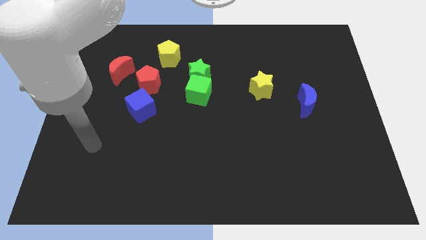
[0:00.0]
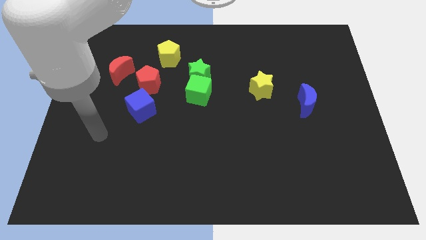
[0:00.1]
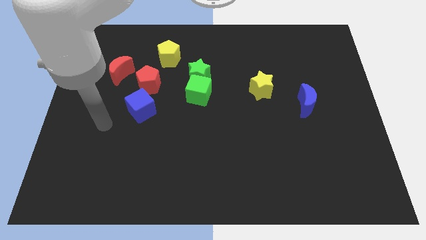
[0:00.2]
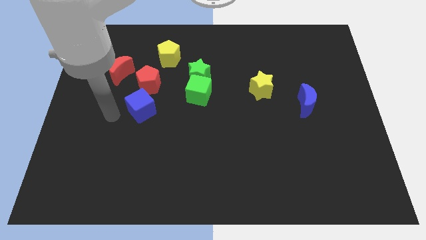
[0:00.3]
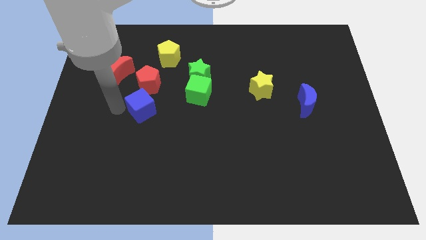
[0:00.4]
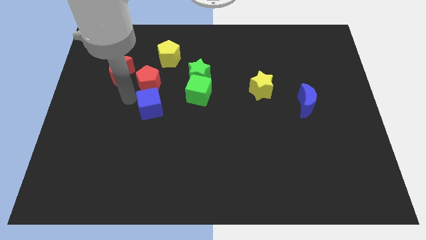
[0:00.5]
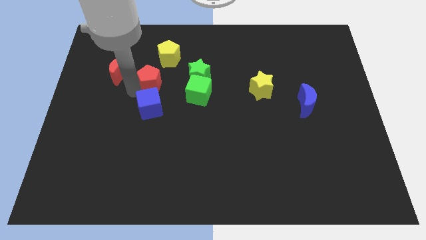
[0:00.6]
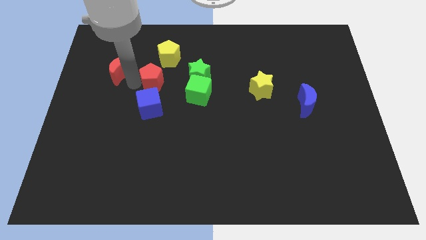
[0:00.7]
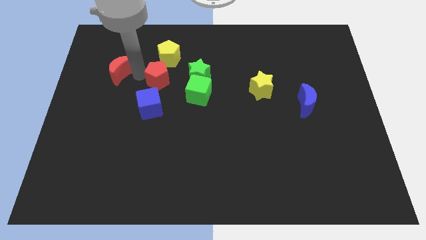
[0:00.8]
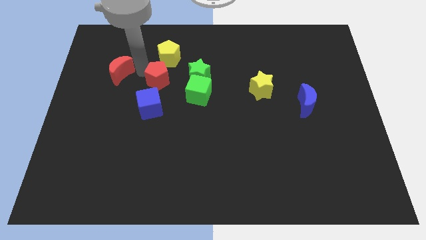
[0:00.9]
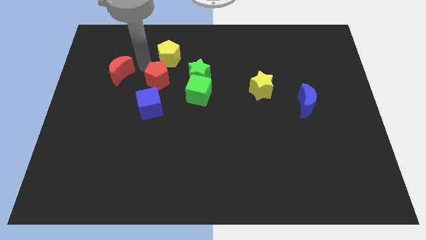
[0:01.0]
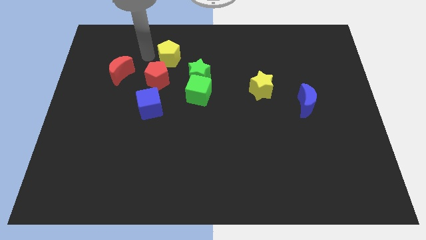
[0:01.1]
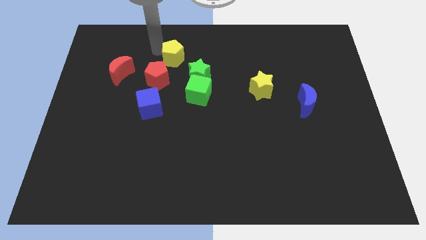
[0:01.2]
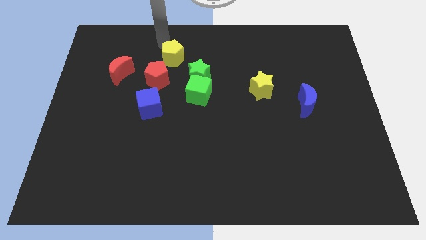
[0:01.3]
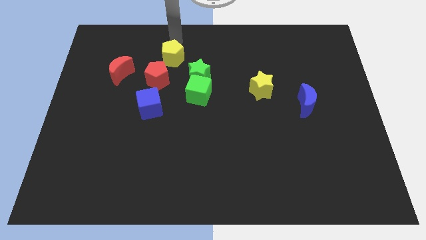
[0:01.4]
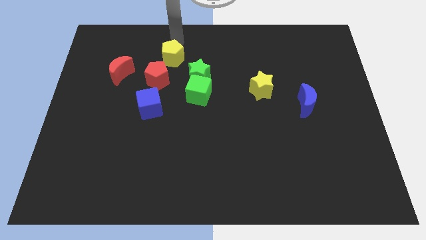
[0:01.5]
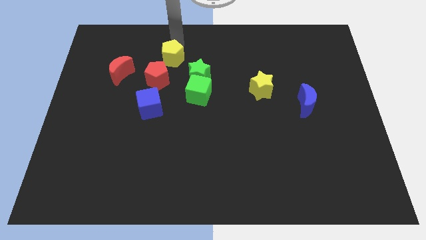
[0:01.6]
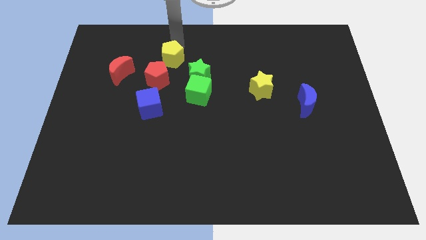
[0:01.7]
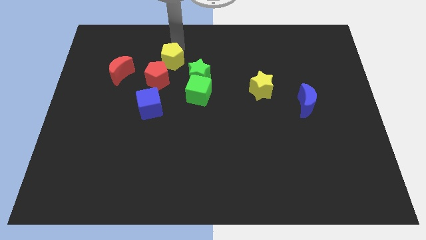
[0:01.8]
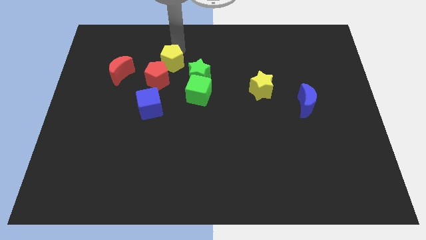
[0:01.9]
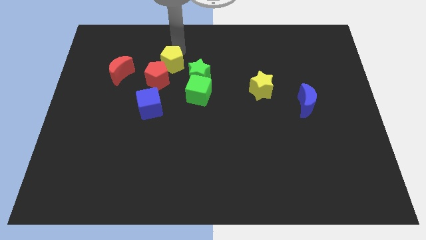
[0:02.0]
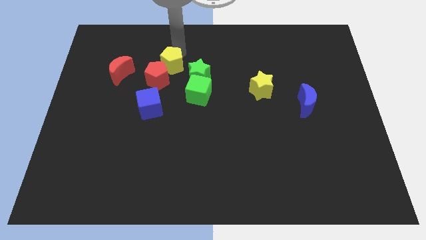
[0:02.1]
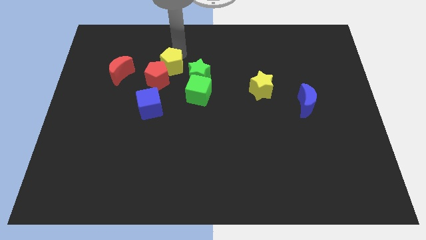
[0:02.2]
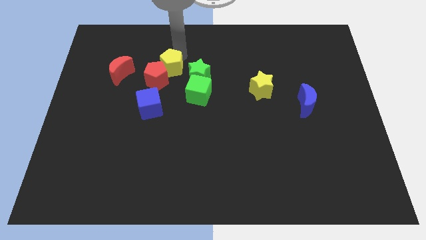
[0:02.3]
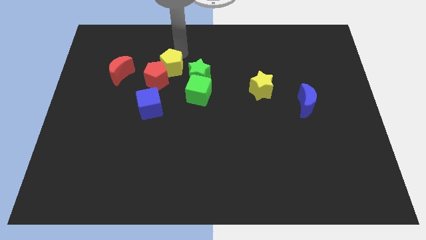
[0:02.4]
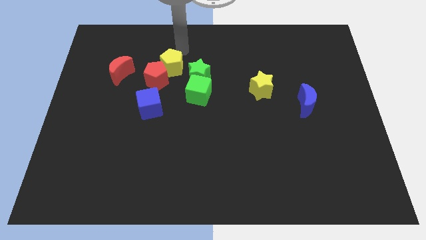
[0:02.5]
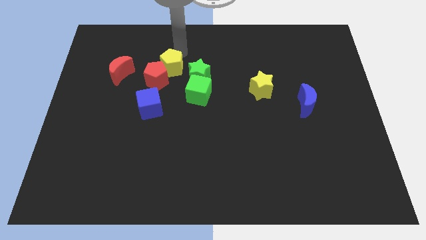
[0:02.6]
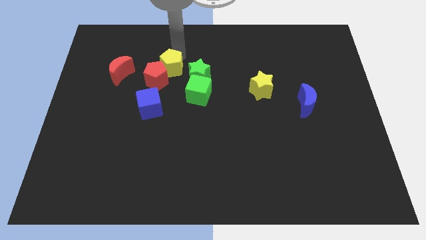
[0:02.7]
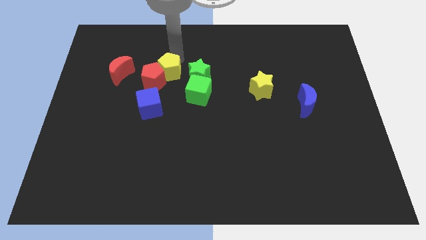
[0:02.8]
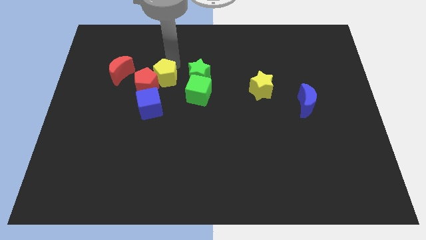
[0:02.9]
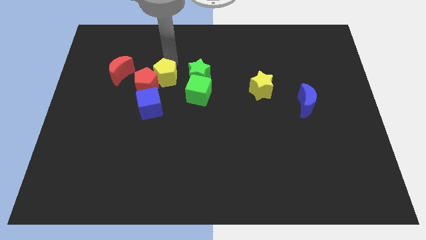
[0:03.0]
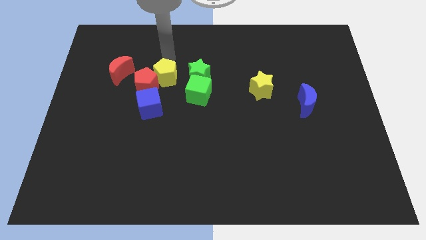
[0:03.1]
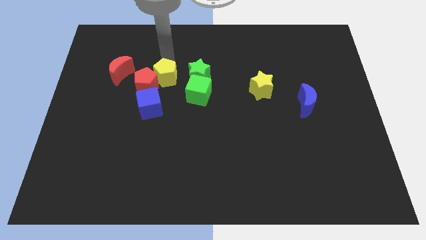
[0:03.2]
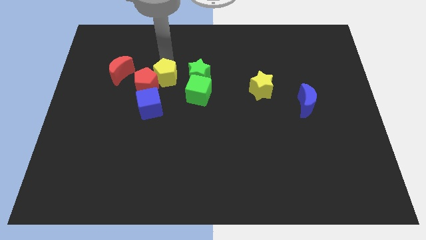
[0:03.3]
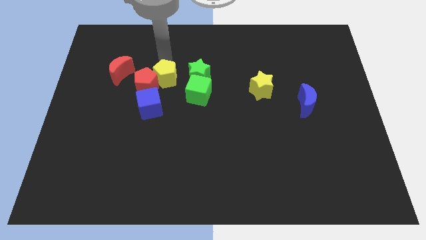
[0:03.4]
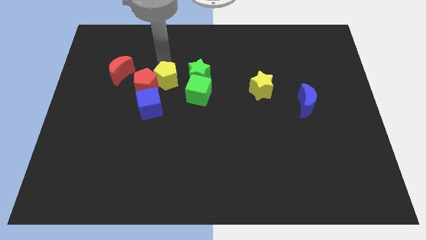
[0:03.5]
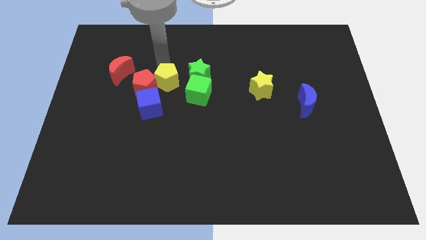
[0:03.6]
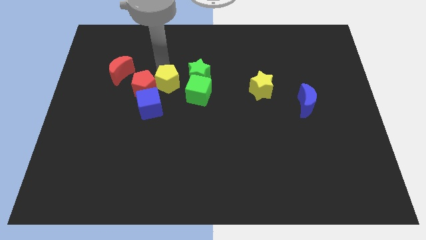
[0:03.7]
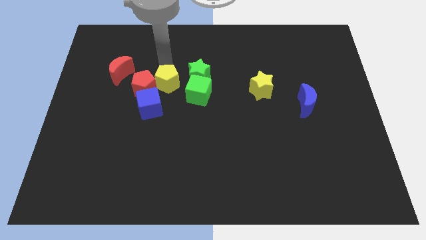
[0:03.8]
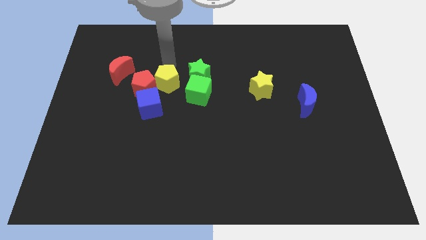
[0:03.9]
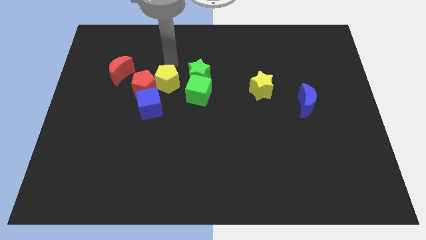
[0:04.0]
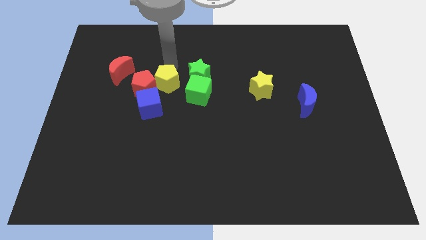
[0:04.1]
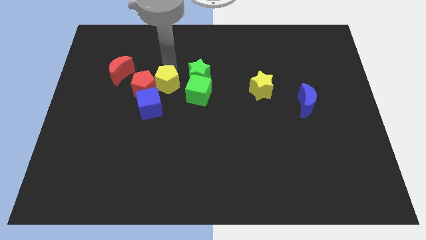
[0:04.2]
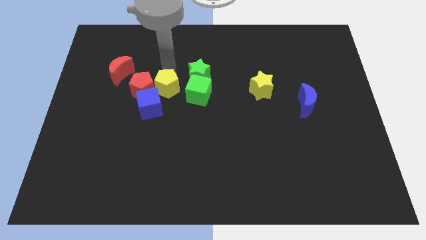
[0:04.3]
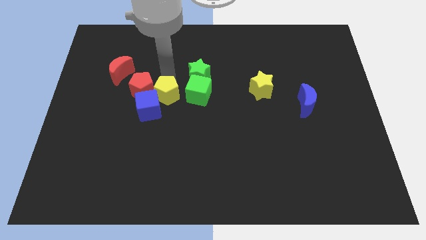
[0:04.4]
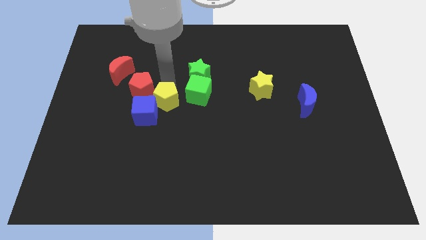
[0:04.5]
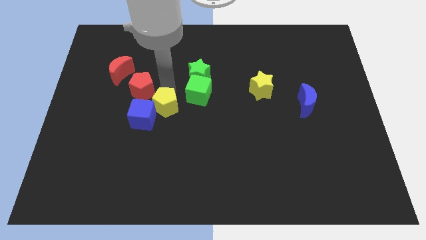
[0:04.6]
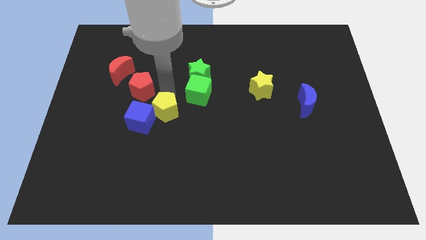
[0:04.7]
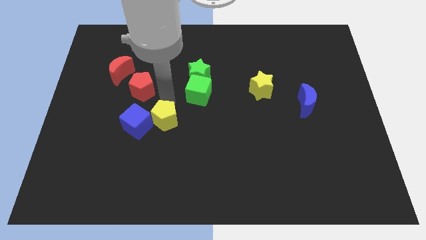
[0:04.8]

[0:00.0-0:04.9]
move the yellow pentagon down

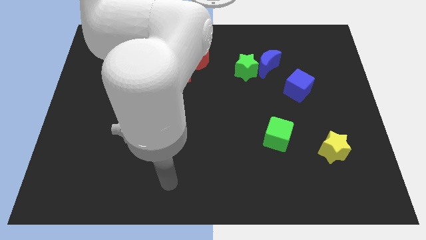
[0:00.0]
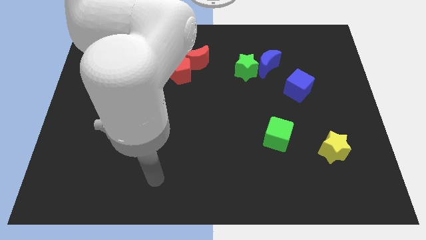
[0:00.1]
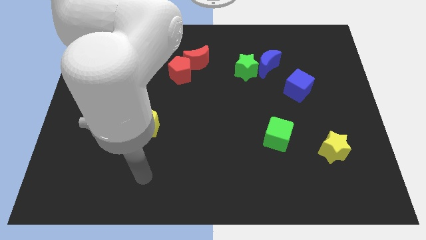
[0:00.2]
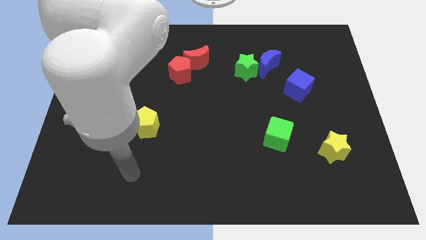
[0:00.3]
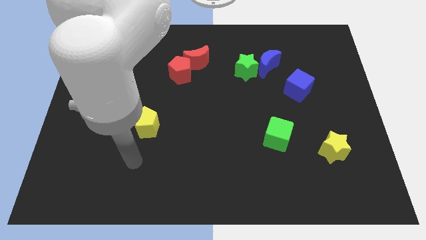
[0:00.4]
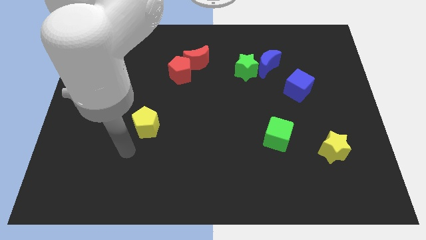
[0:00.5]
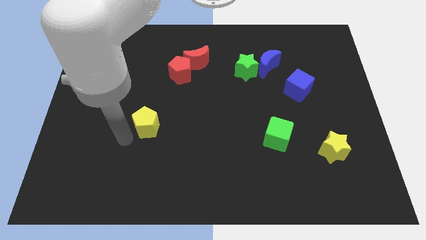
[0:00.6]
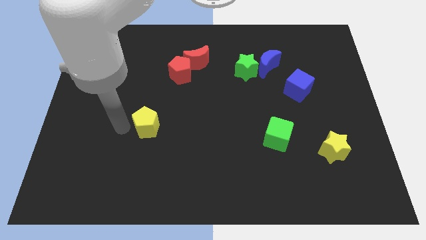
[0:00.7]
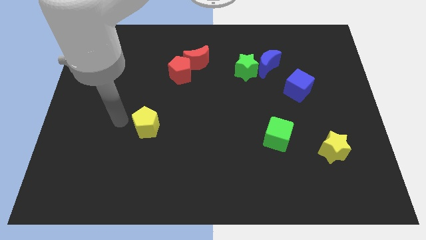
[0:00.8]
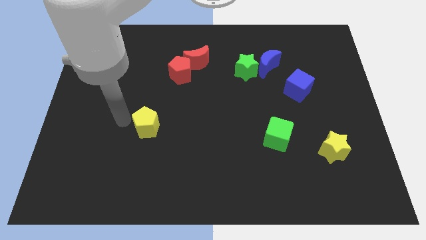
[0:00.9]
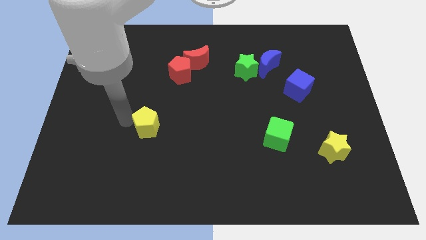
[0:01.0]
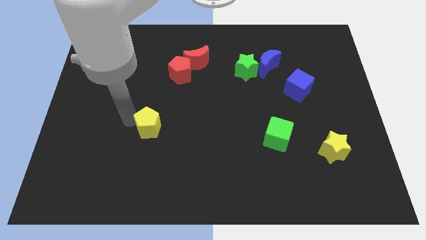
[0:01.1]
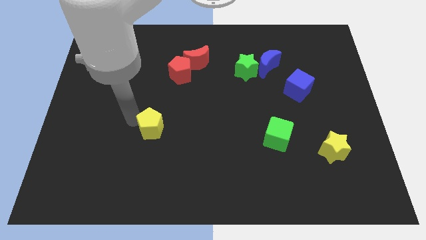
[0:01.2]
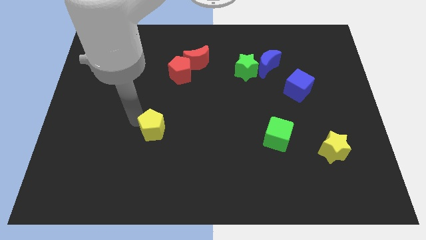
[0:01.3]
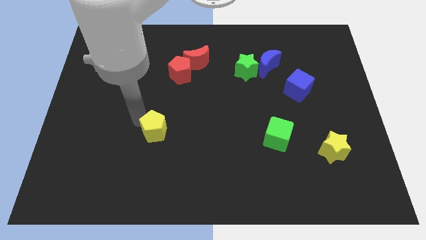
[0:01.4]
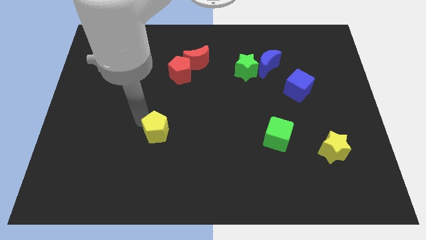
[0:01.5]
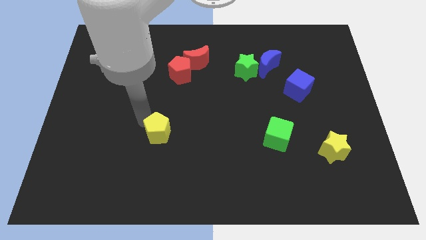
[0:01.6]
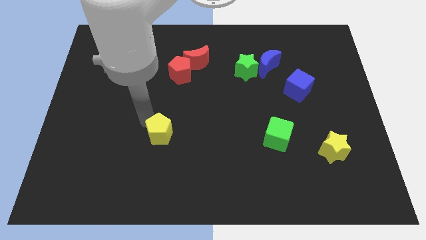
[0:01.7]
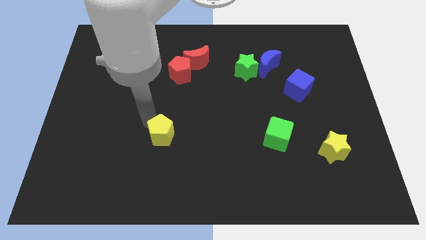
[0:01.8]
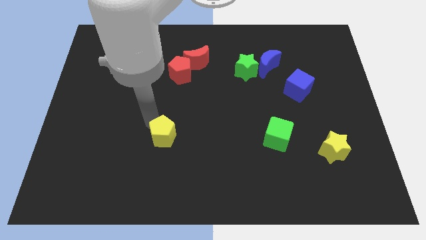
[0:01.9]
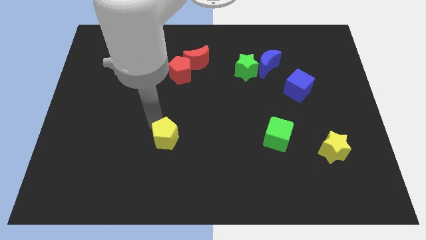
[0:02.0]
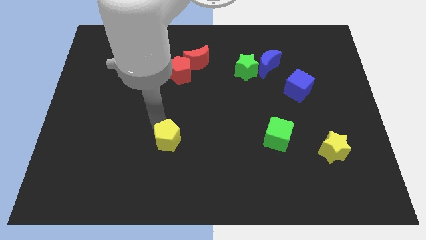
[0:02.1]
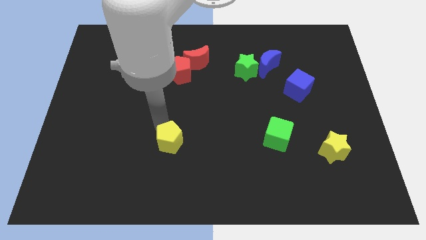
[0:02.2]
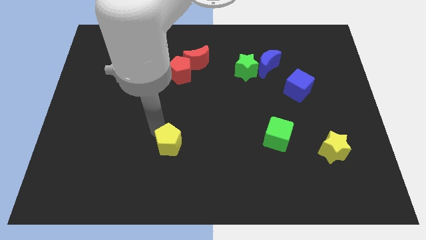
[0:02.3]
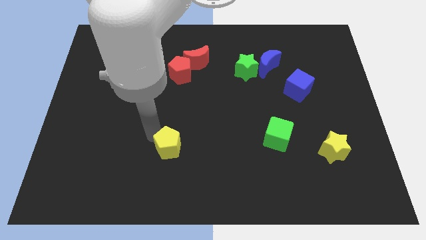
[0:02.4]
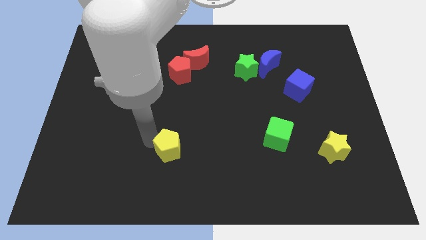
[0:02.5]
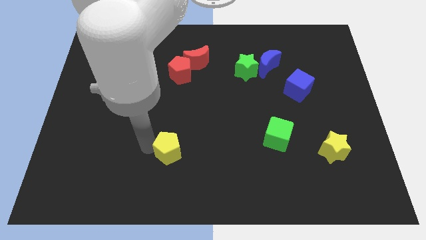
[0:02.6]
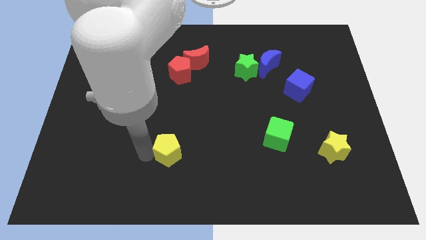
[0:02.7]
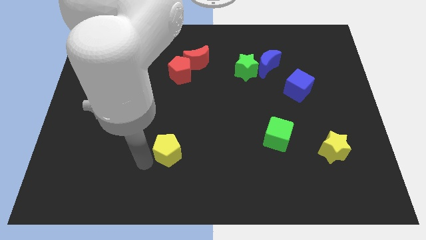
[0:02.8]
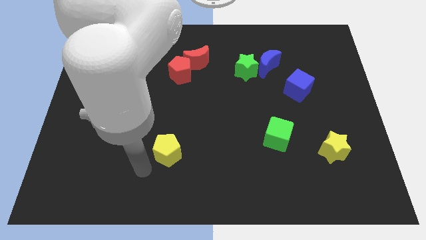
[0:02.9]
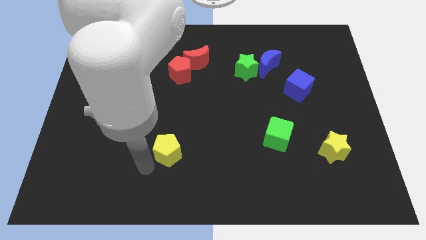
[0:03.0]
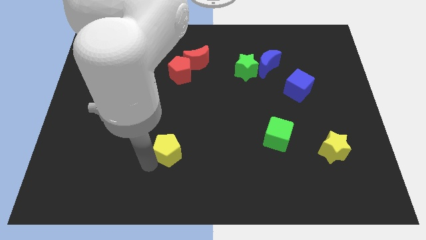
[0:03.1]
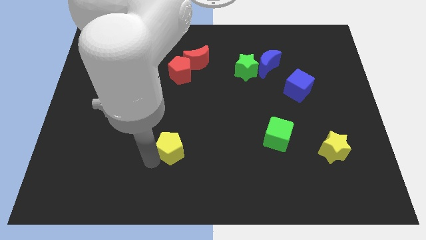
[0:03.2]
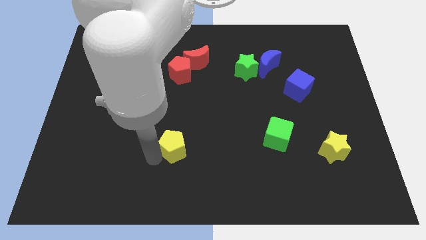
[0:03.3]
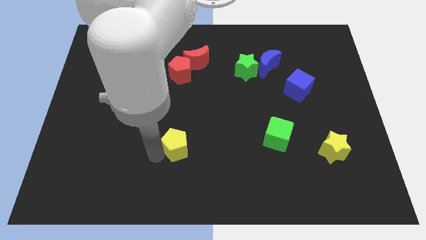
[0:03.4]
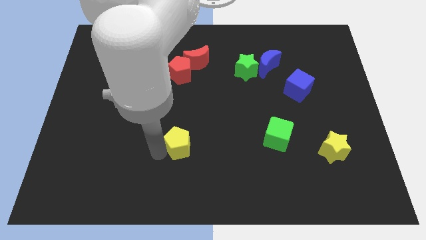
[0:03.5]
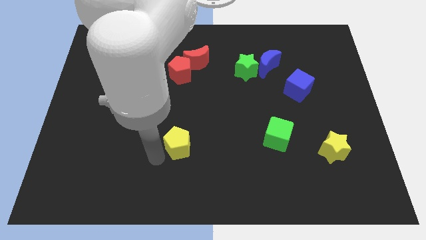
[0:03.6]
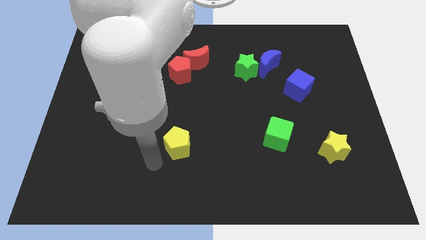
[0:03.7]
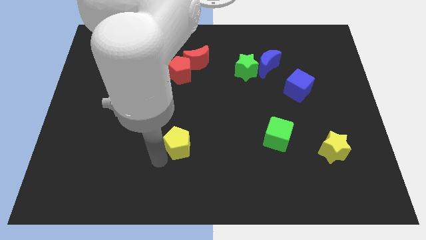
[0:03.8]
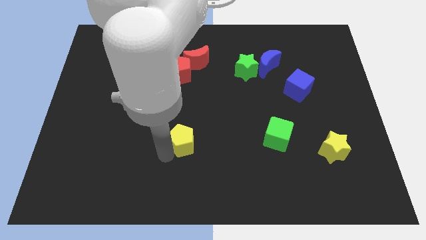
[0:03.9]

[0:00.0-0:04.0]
slide the yellow pentagon a little bit right
